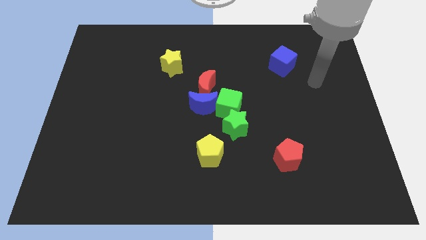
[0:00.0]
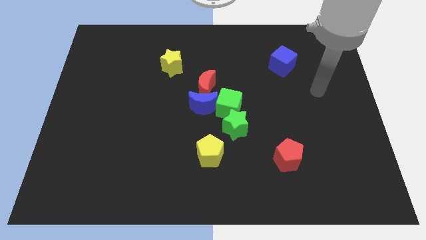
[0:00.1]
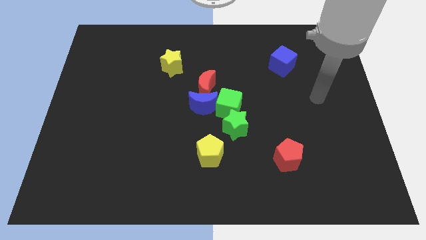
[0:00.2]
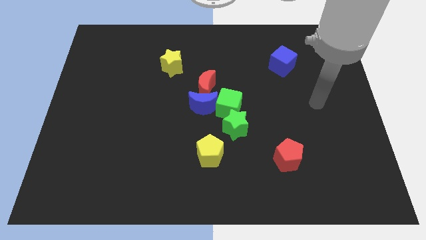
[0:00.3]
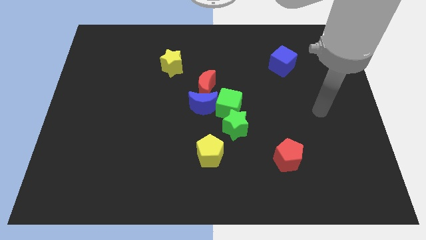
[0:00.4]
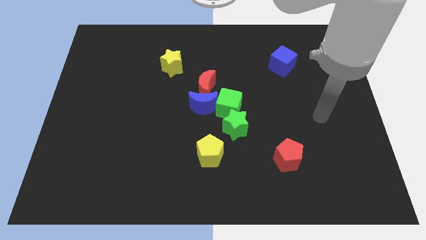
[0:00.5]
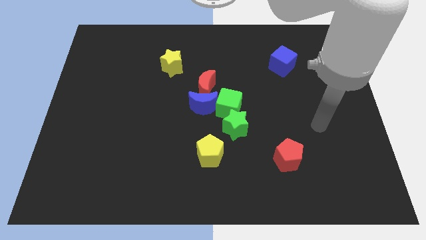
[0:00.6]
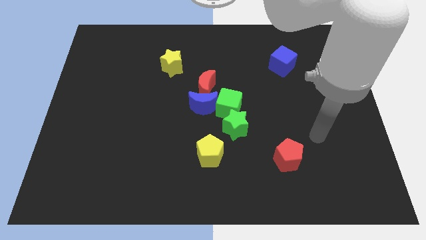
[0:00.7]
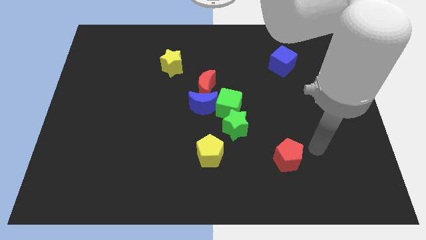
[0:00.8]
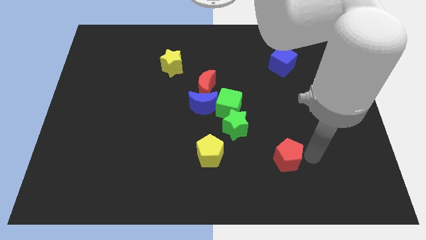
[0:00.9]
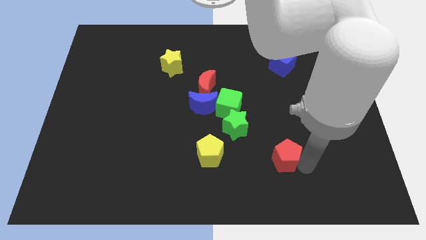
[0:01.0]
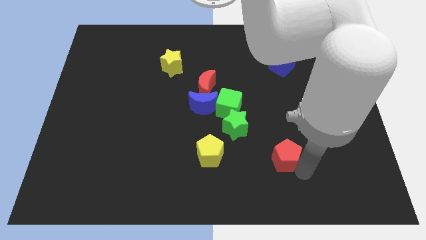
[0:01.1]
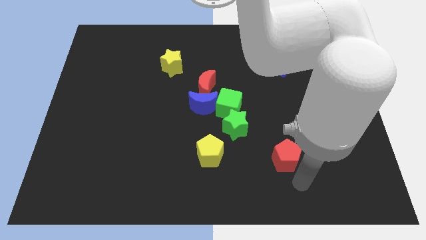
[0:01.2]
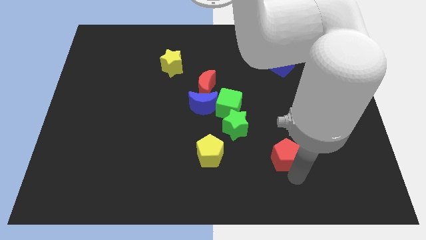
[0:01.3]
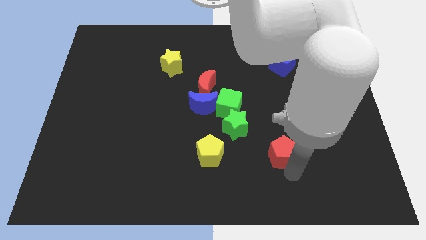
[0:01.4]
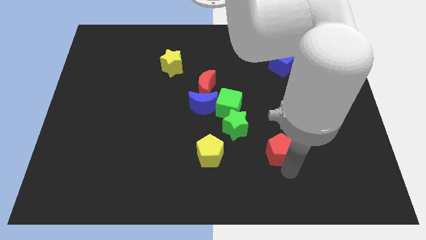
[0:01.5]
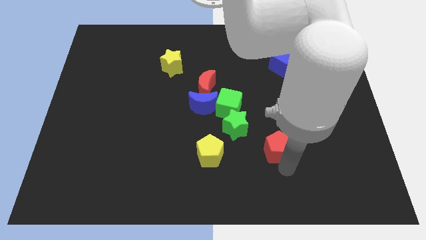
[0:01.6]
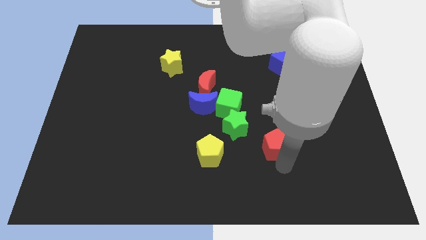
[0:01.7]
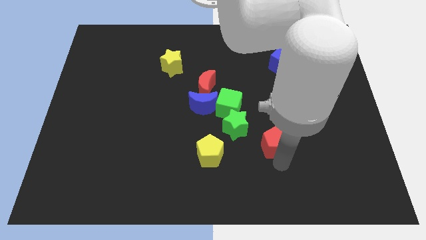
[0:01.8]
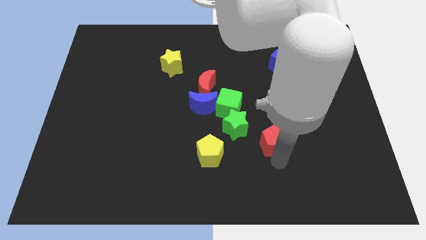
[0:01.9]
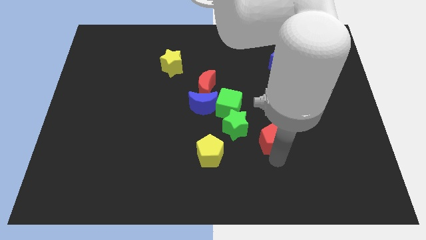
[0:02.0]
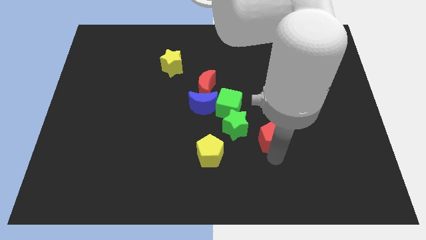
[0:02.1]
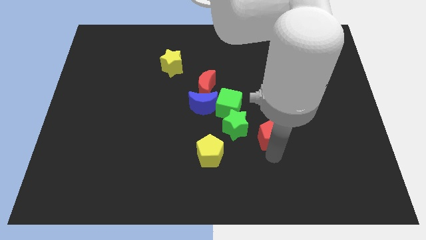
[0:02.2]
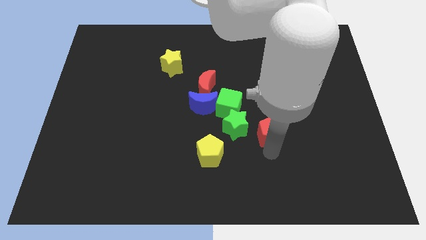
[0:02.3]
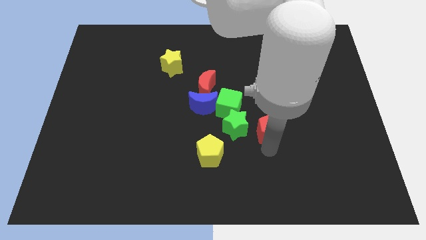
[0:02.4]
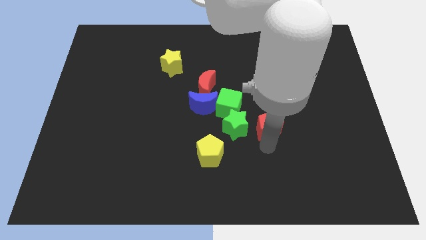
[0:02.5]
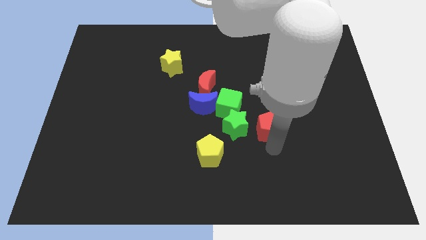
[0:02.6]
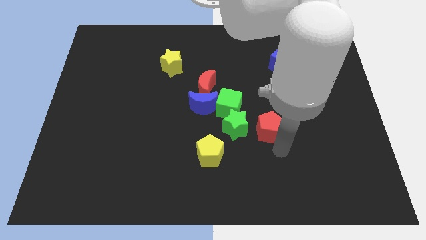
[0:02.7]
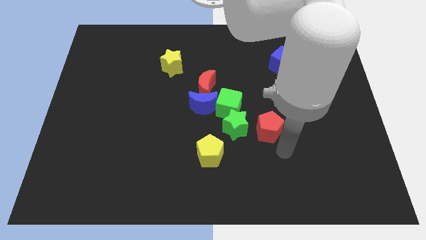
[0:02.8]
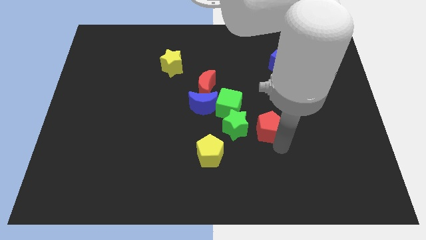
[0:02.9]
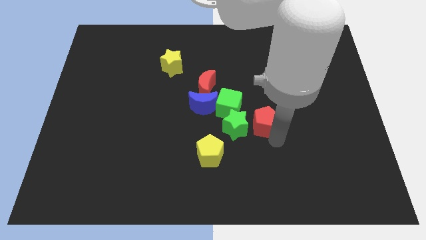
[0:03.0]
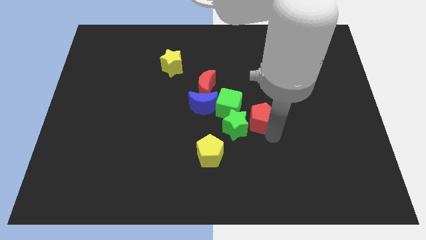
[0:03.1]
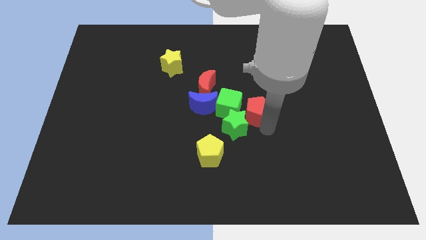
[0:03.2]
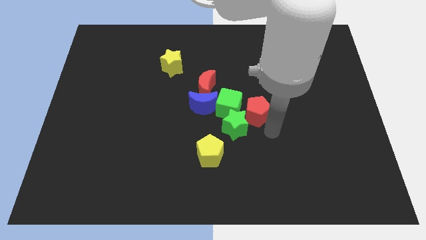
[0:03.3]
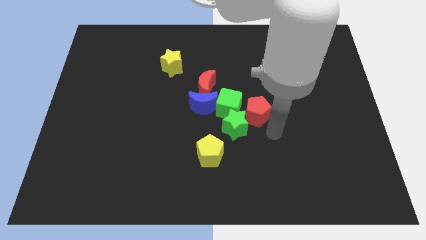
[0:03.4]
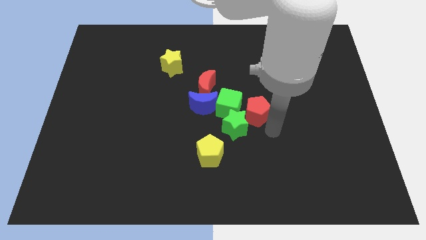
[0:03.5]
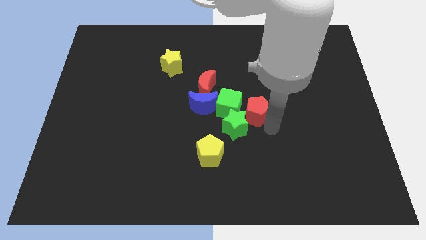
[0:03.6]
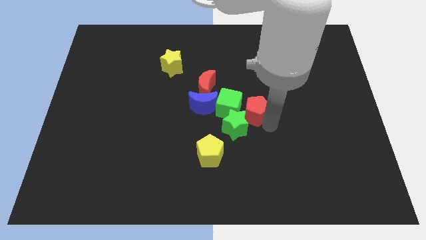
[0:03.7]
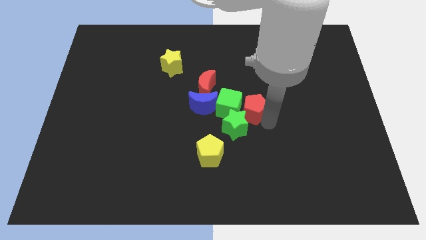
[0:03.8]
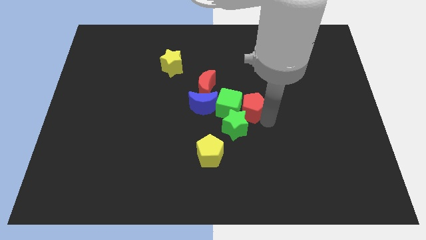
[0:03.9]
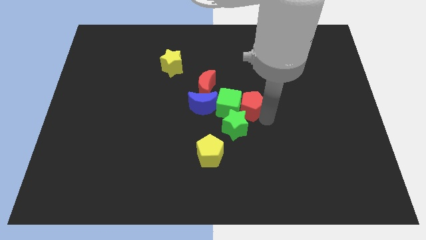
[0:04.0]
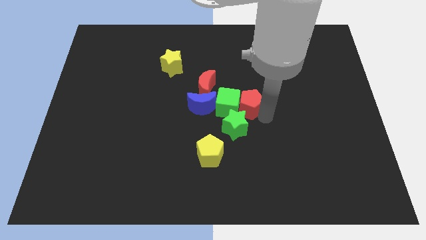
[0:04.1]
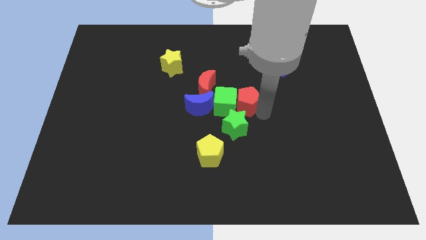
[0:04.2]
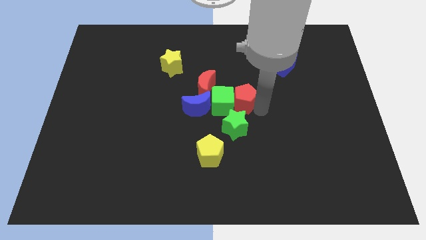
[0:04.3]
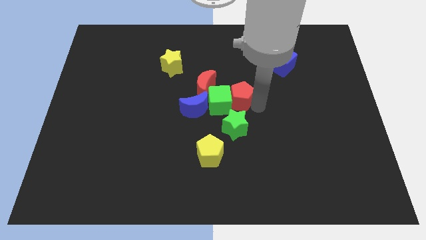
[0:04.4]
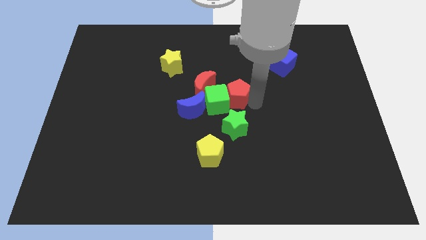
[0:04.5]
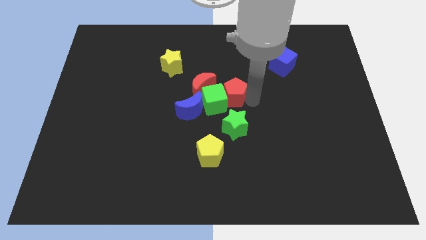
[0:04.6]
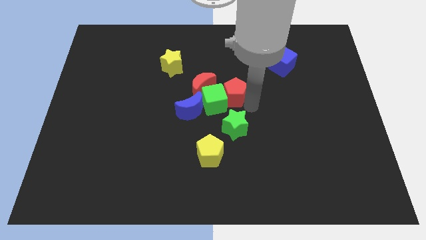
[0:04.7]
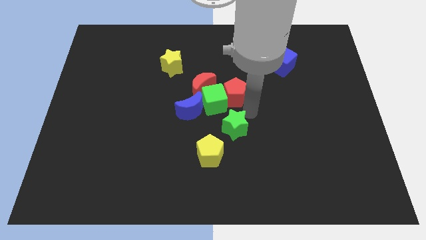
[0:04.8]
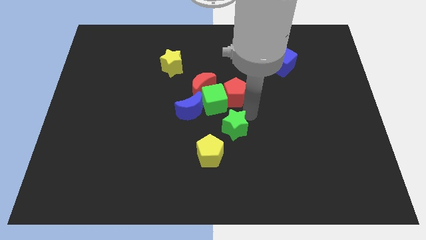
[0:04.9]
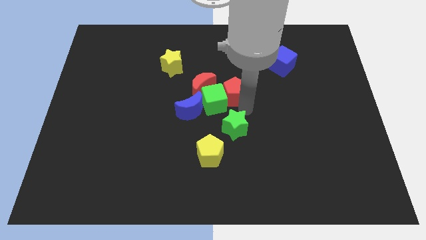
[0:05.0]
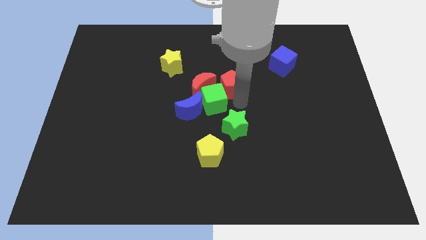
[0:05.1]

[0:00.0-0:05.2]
push the red pentagon above the green cube

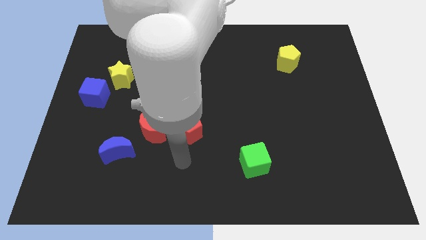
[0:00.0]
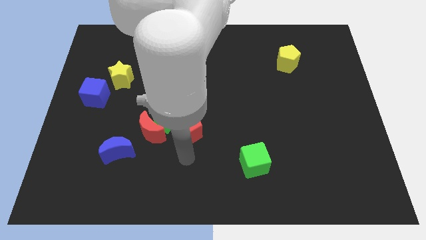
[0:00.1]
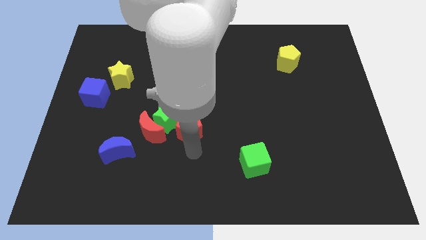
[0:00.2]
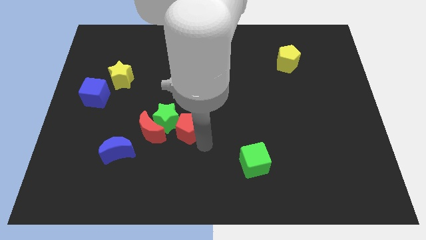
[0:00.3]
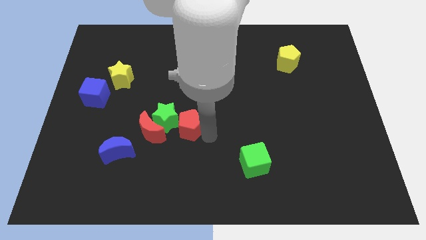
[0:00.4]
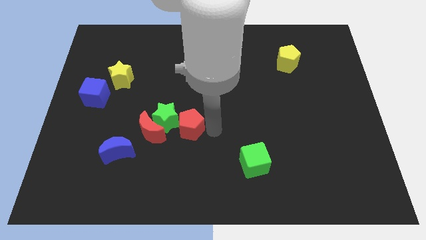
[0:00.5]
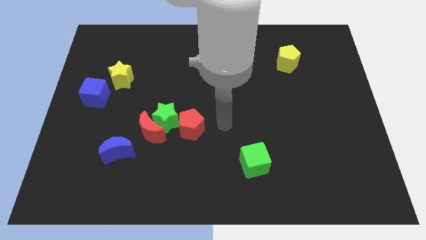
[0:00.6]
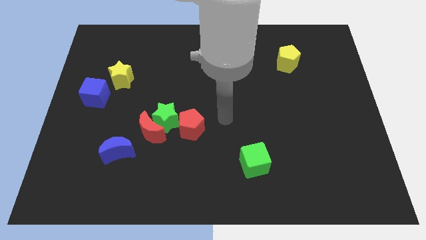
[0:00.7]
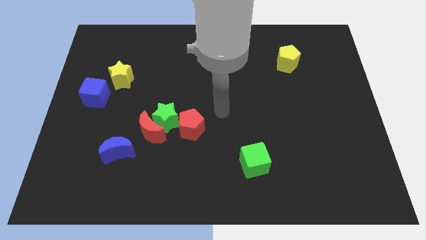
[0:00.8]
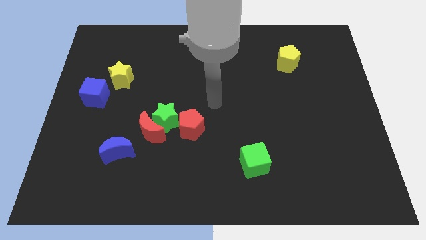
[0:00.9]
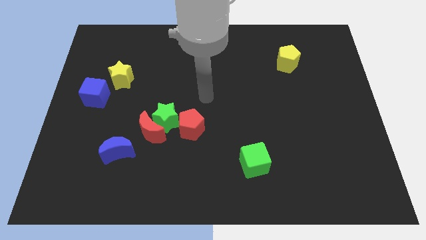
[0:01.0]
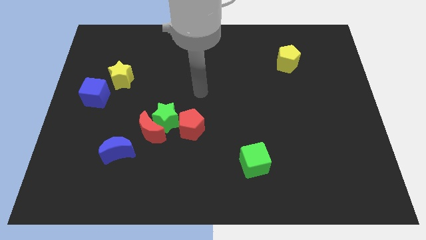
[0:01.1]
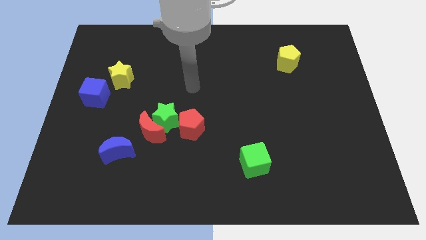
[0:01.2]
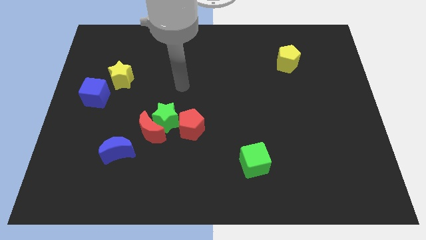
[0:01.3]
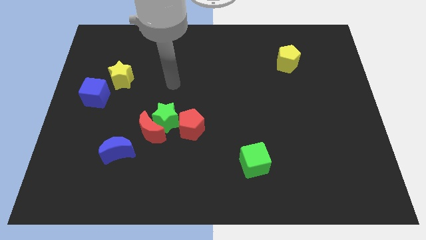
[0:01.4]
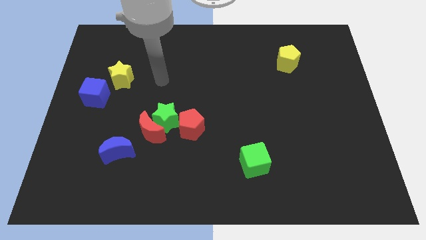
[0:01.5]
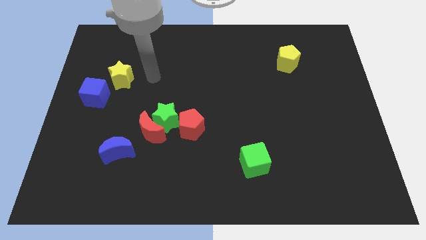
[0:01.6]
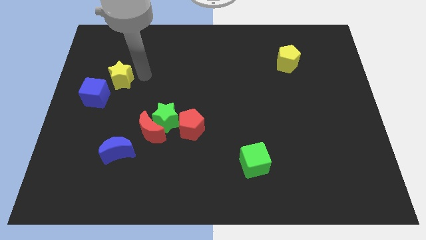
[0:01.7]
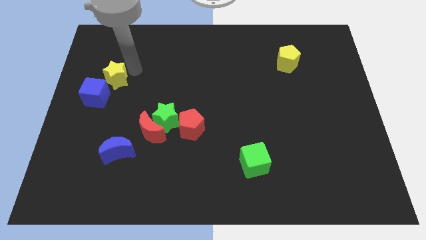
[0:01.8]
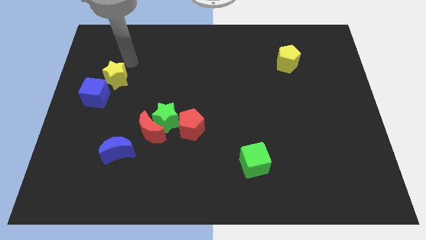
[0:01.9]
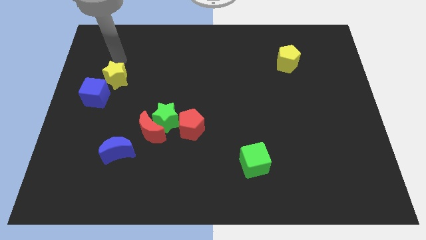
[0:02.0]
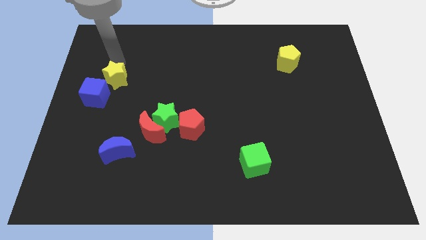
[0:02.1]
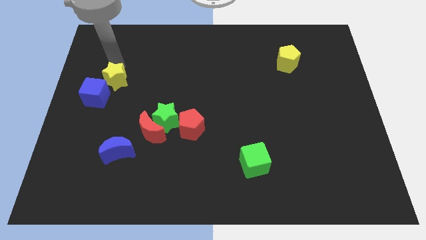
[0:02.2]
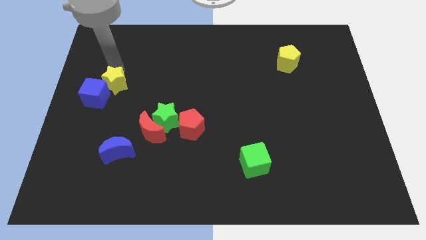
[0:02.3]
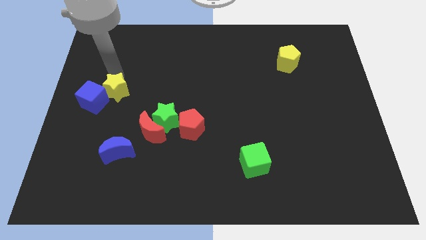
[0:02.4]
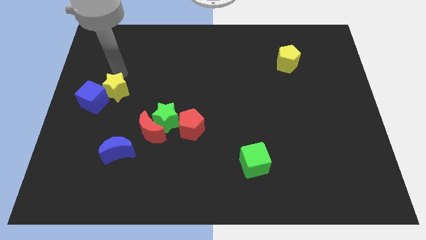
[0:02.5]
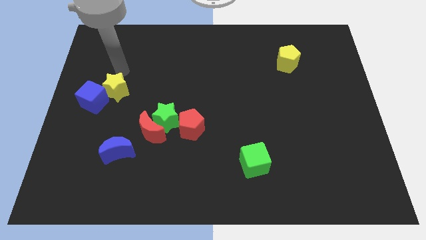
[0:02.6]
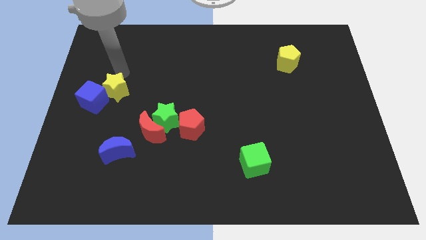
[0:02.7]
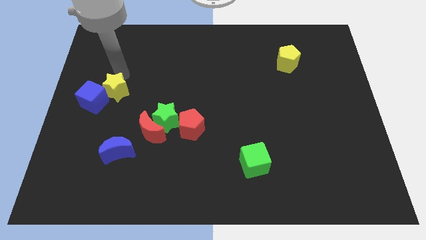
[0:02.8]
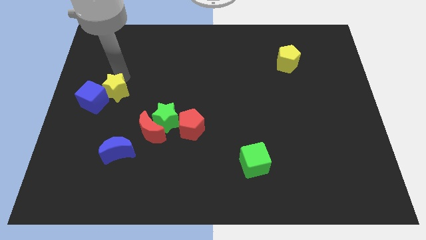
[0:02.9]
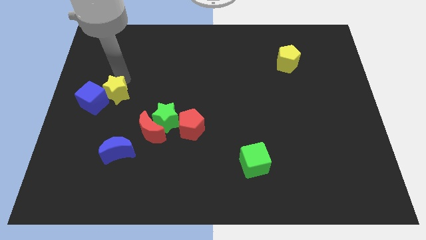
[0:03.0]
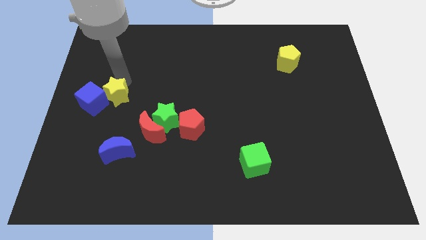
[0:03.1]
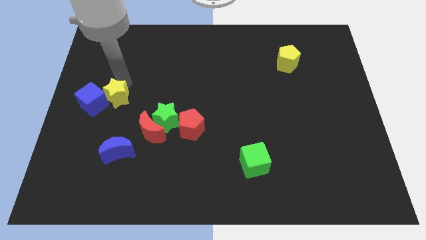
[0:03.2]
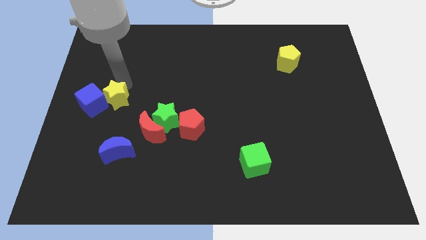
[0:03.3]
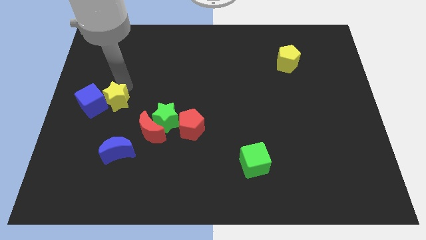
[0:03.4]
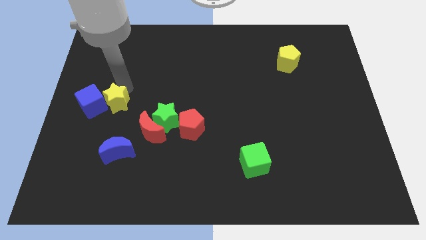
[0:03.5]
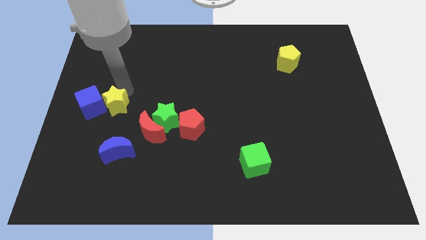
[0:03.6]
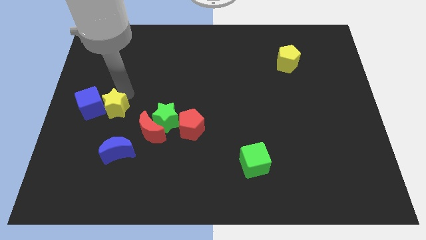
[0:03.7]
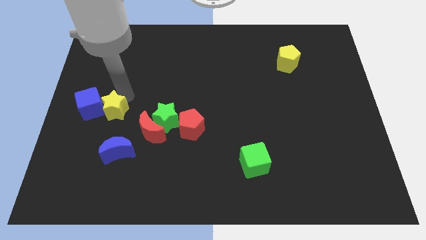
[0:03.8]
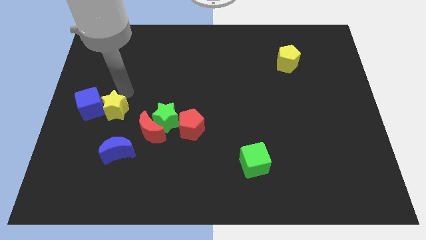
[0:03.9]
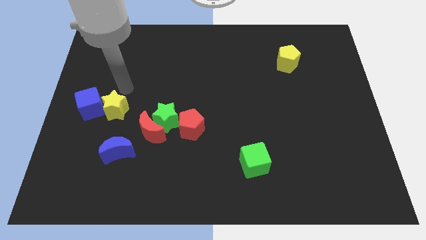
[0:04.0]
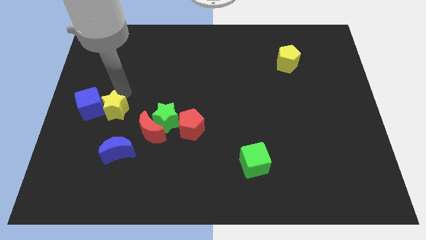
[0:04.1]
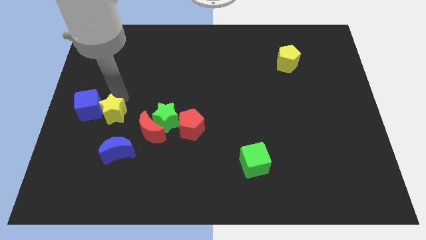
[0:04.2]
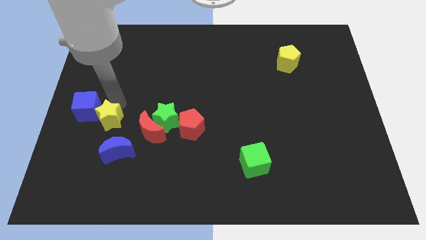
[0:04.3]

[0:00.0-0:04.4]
move the yellow star to the left of the red moon
